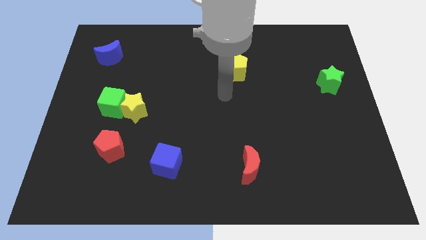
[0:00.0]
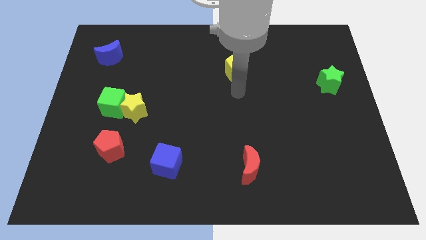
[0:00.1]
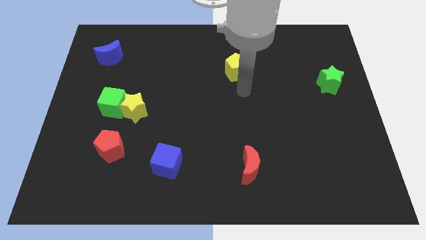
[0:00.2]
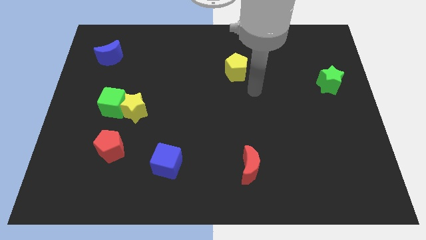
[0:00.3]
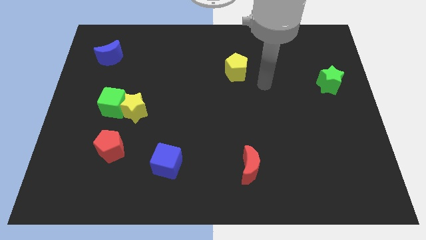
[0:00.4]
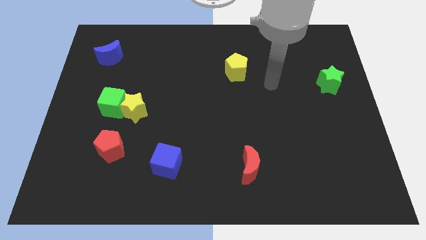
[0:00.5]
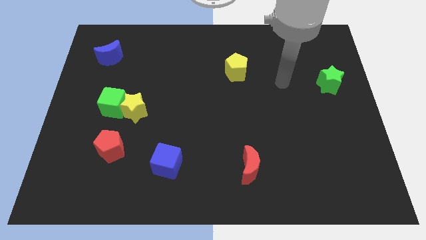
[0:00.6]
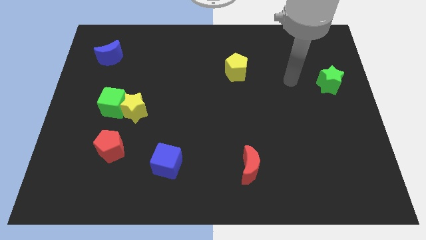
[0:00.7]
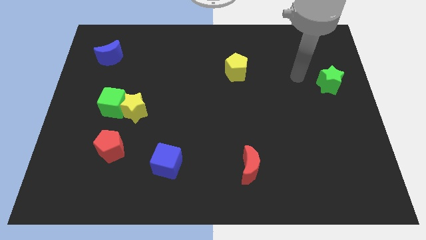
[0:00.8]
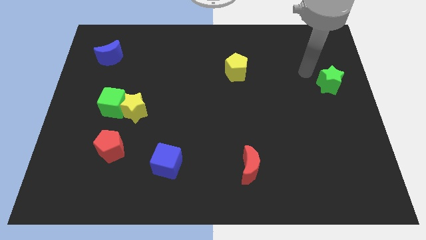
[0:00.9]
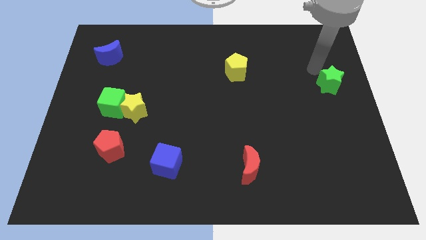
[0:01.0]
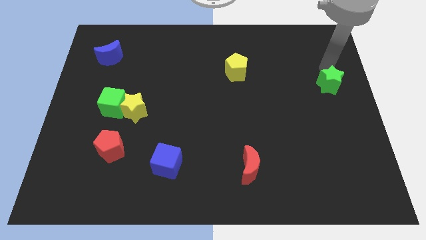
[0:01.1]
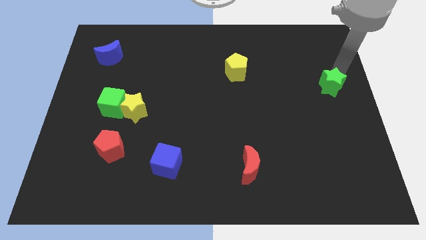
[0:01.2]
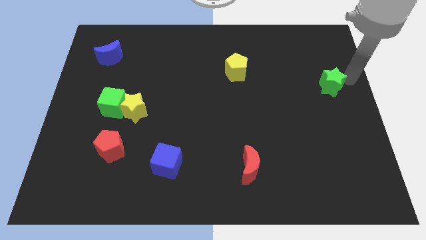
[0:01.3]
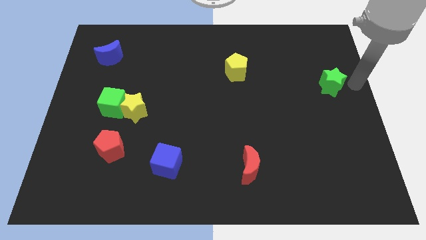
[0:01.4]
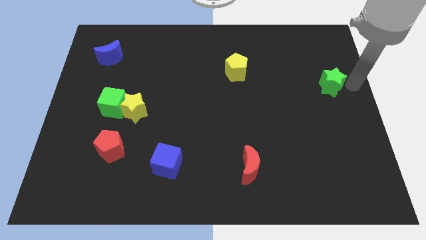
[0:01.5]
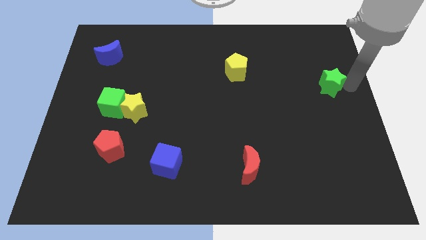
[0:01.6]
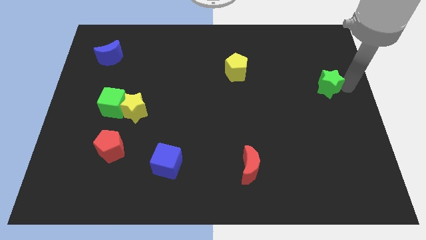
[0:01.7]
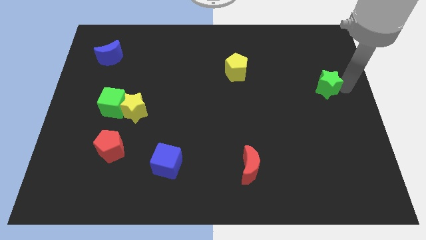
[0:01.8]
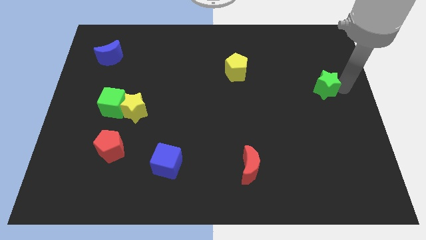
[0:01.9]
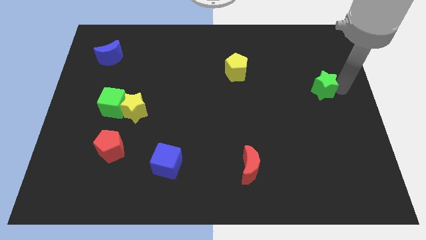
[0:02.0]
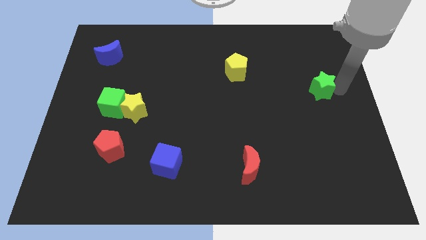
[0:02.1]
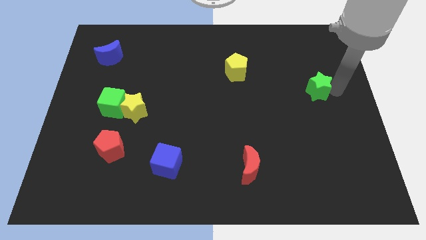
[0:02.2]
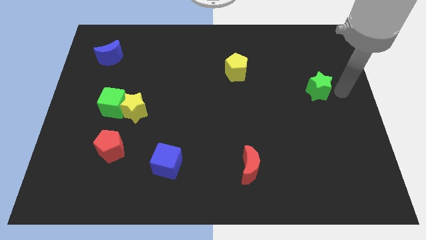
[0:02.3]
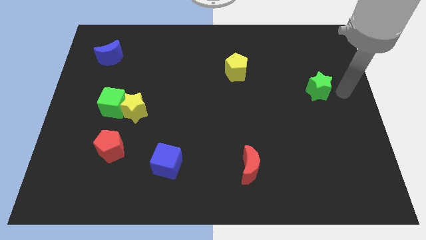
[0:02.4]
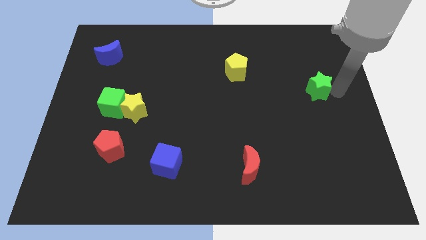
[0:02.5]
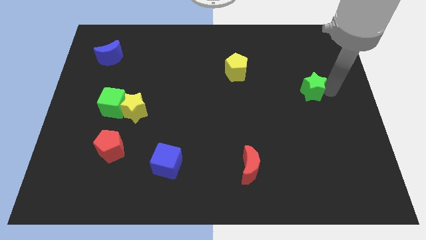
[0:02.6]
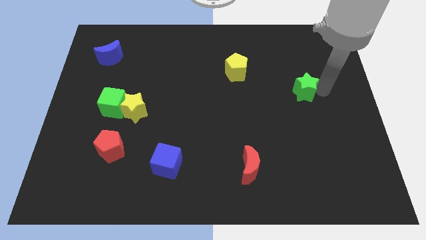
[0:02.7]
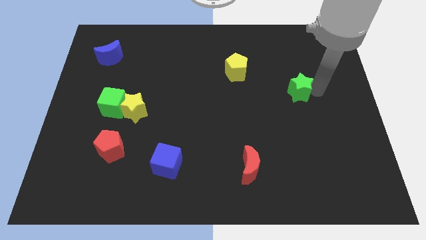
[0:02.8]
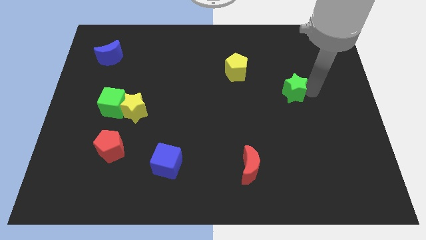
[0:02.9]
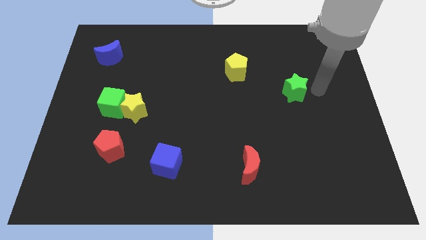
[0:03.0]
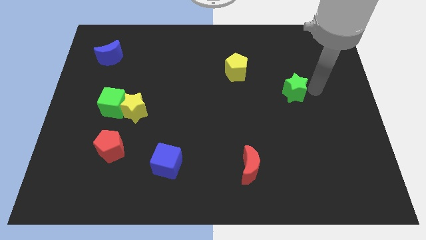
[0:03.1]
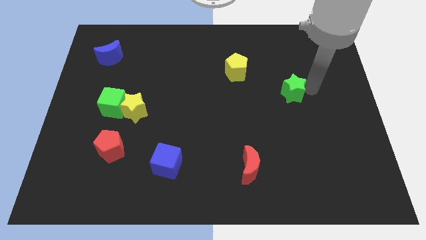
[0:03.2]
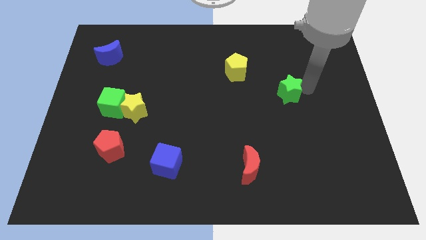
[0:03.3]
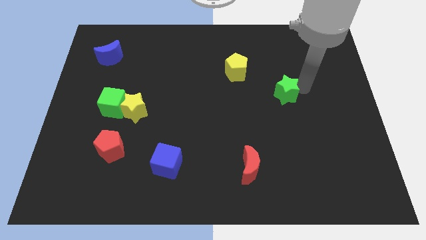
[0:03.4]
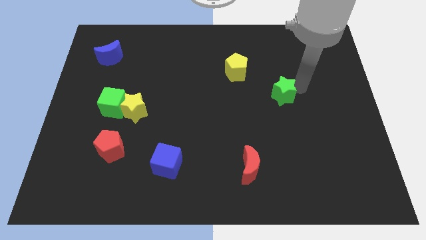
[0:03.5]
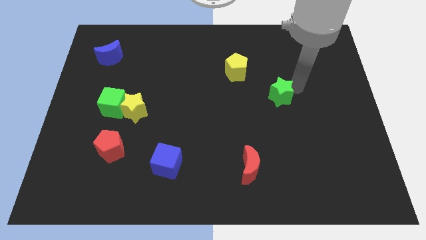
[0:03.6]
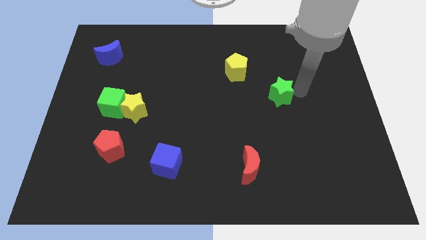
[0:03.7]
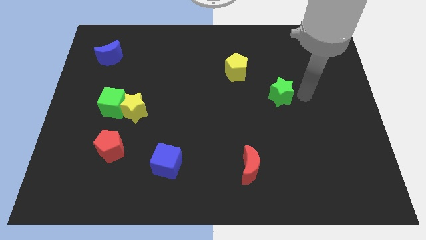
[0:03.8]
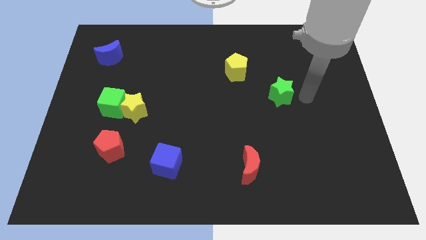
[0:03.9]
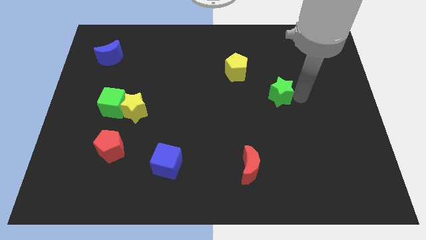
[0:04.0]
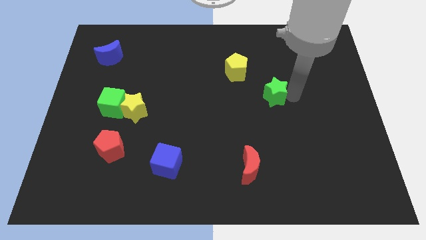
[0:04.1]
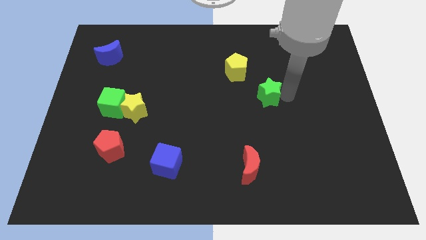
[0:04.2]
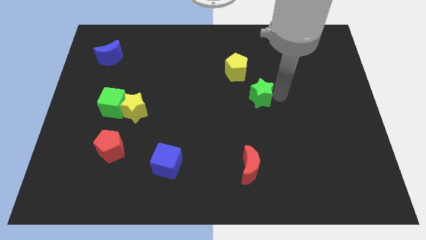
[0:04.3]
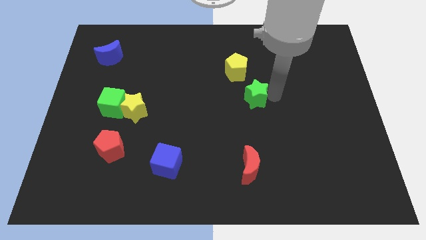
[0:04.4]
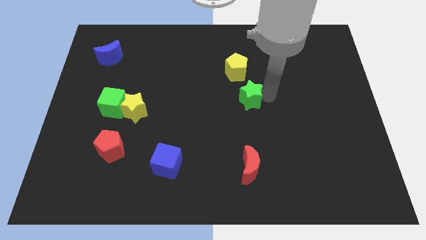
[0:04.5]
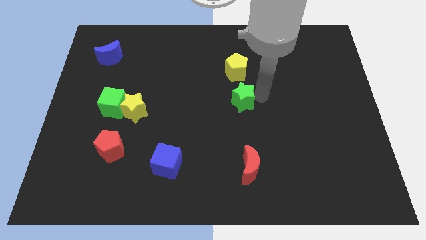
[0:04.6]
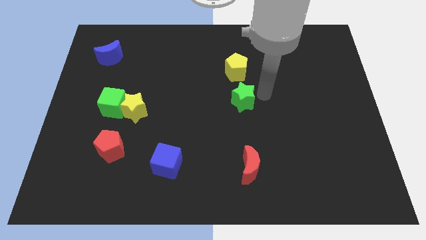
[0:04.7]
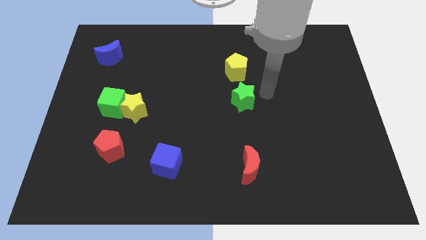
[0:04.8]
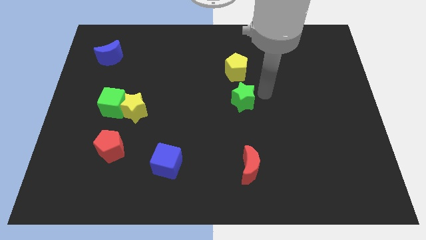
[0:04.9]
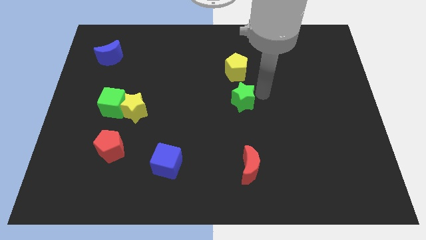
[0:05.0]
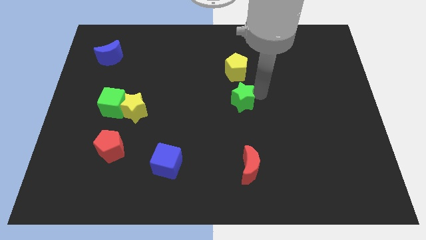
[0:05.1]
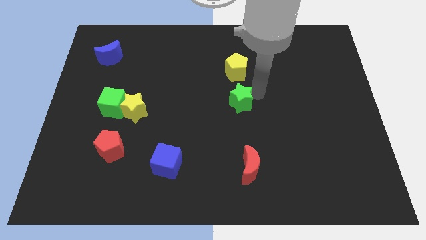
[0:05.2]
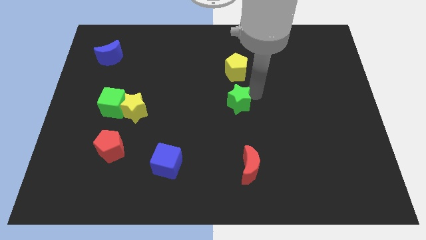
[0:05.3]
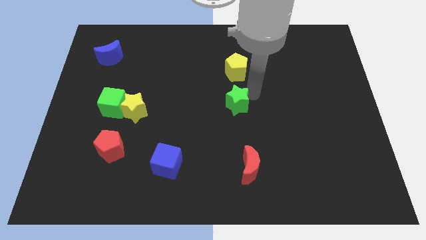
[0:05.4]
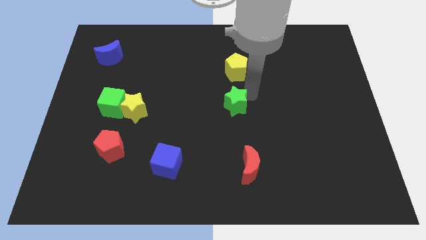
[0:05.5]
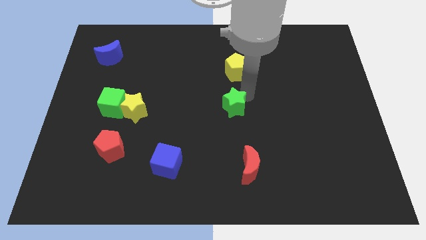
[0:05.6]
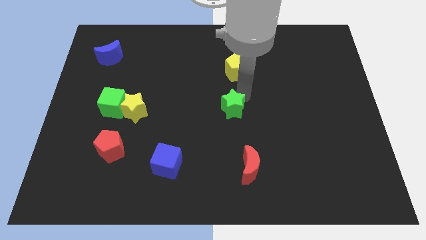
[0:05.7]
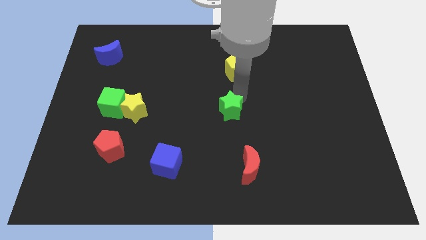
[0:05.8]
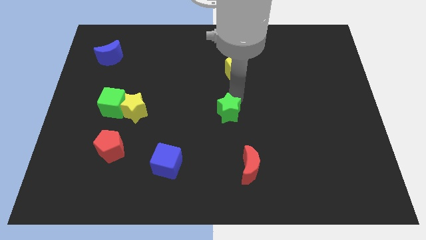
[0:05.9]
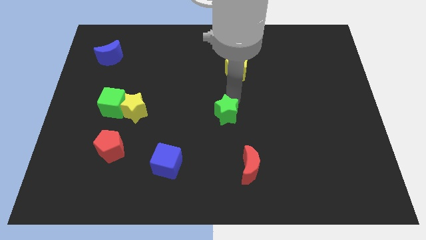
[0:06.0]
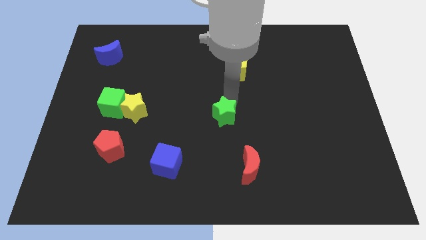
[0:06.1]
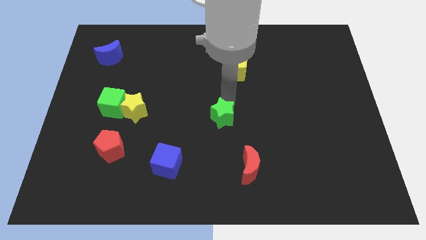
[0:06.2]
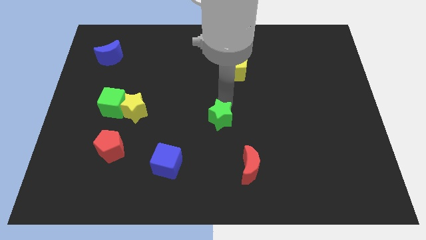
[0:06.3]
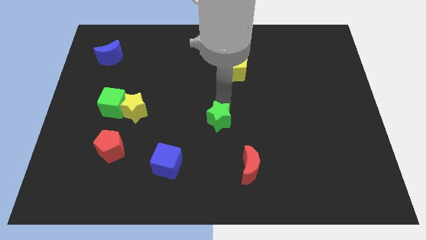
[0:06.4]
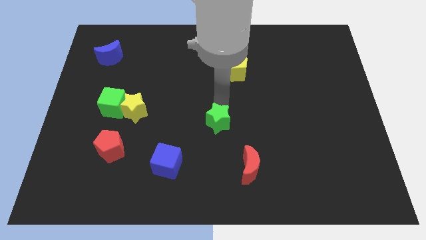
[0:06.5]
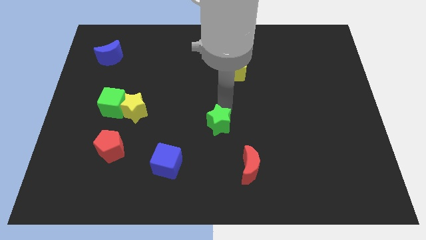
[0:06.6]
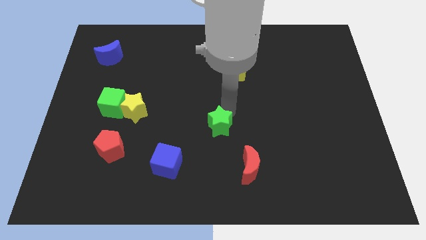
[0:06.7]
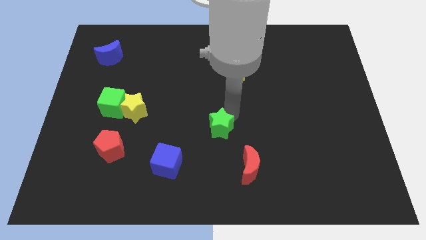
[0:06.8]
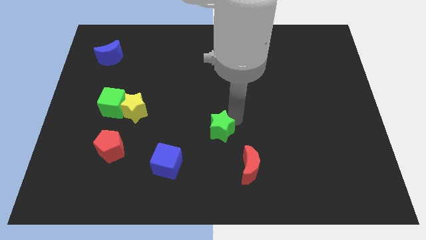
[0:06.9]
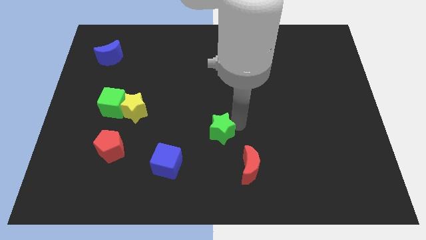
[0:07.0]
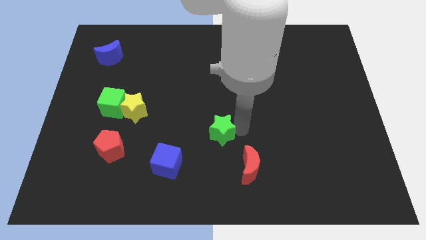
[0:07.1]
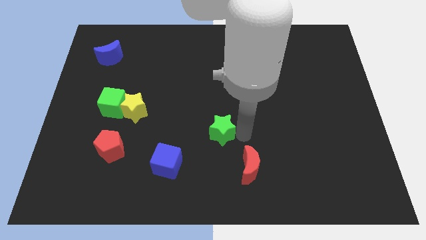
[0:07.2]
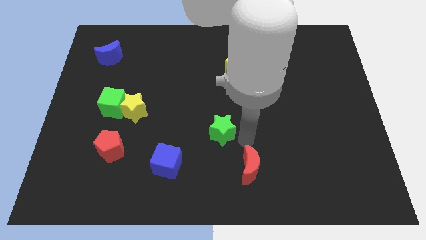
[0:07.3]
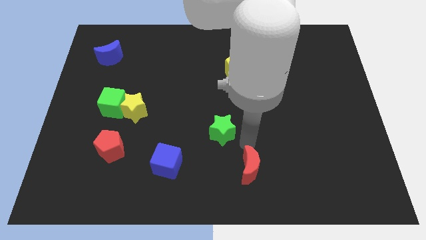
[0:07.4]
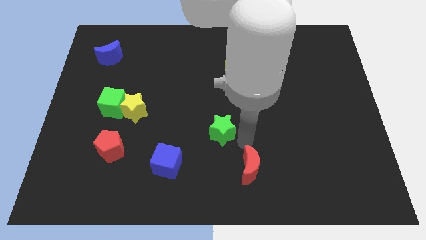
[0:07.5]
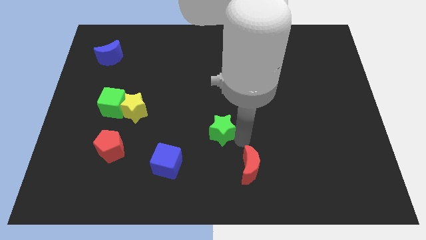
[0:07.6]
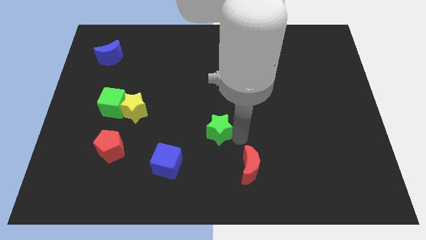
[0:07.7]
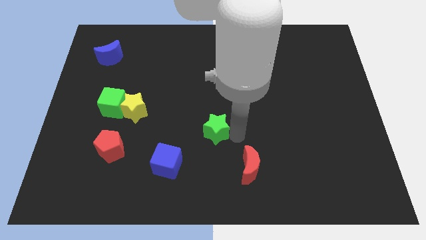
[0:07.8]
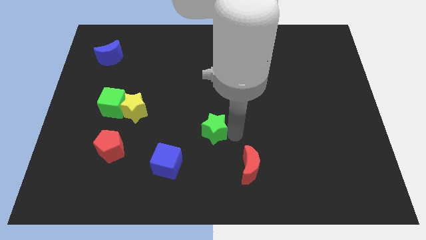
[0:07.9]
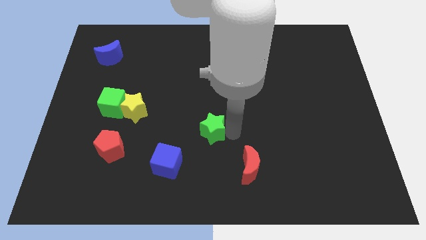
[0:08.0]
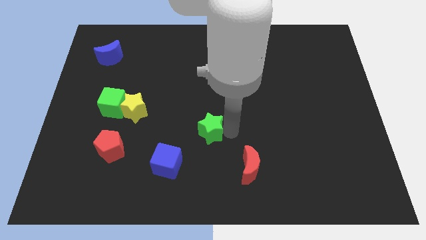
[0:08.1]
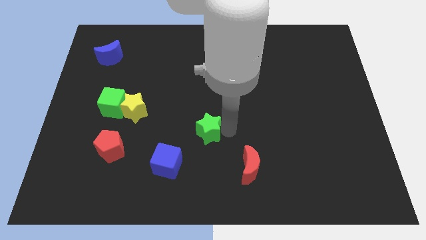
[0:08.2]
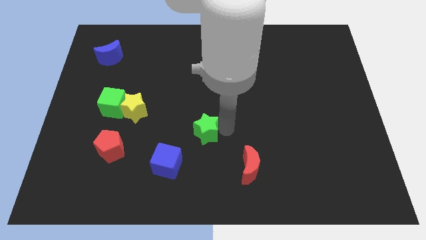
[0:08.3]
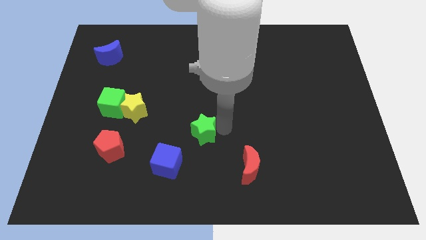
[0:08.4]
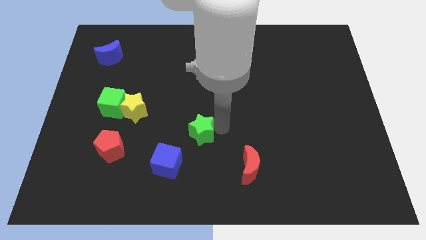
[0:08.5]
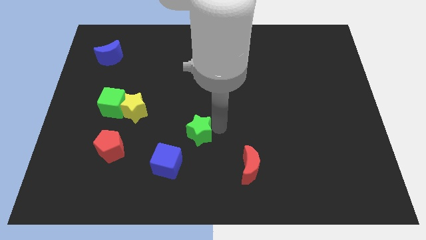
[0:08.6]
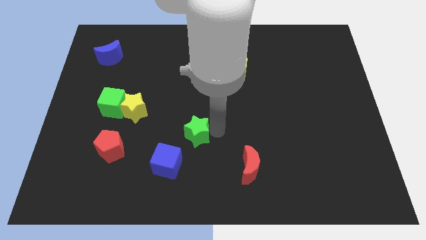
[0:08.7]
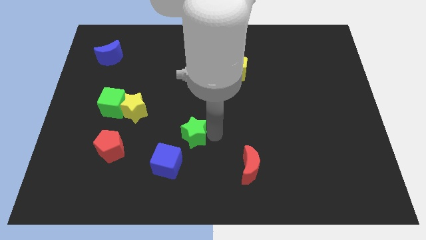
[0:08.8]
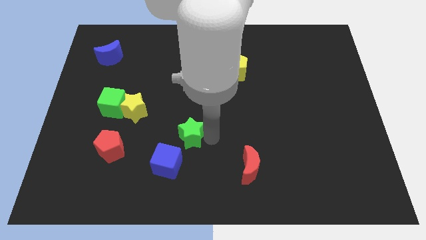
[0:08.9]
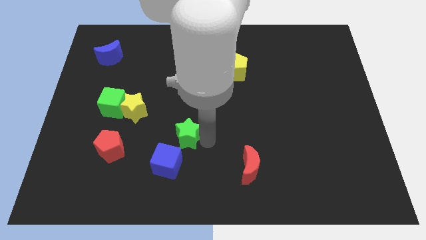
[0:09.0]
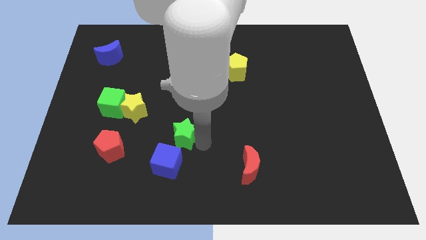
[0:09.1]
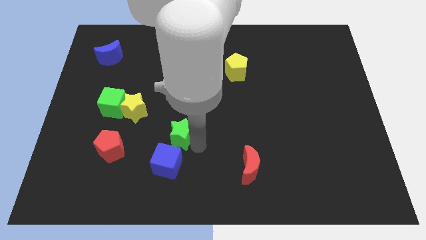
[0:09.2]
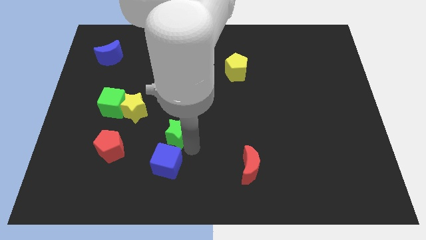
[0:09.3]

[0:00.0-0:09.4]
slide the green star to the right side of the red pentagon
